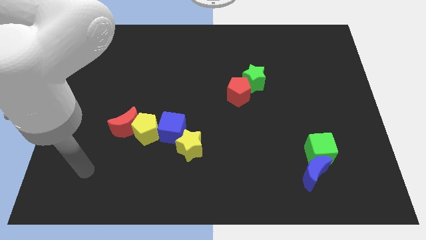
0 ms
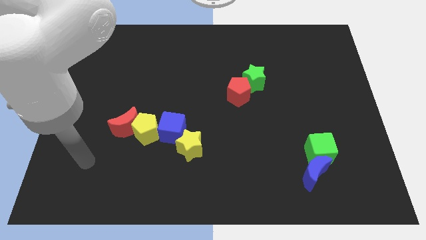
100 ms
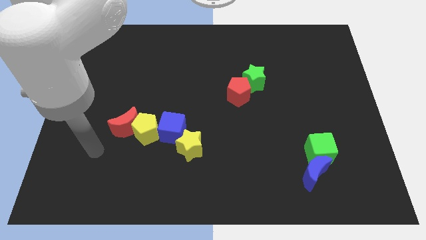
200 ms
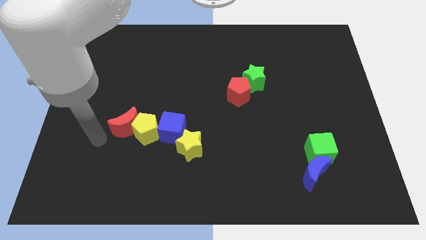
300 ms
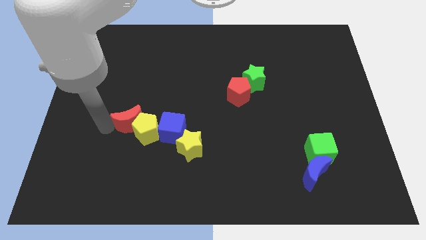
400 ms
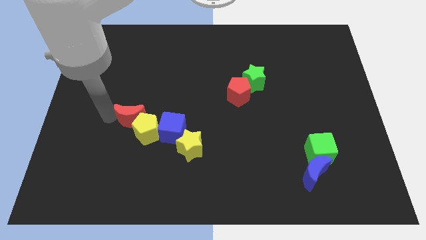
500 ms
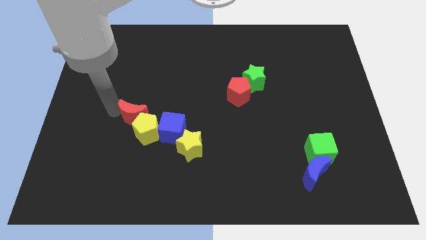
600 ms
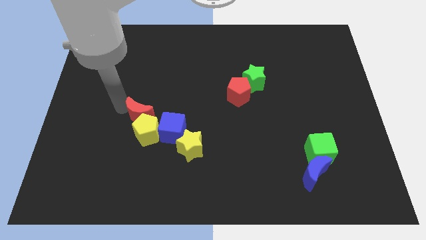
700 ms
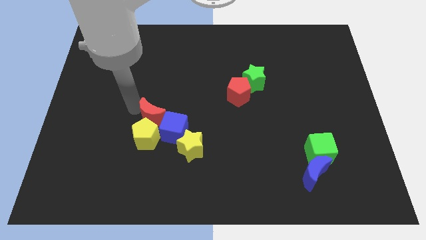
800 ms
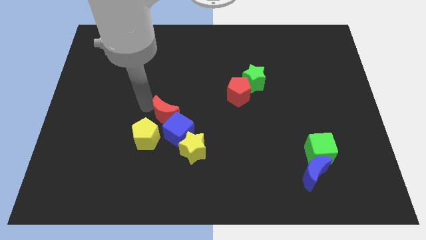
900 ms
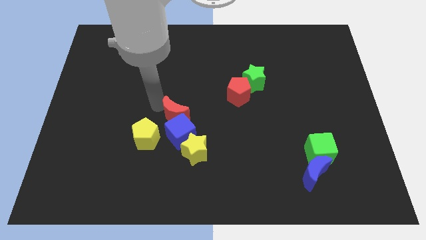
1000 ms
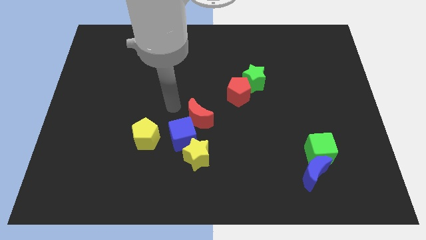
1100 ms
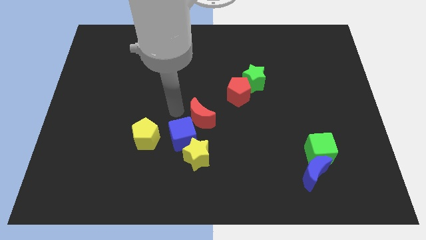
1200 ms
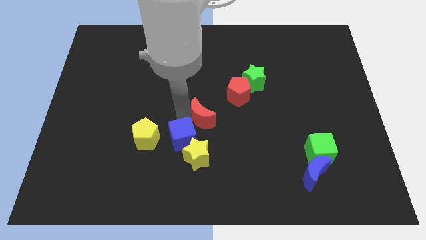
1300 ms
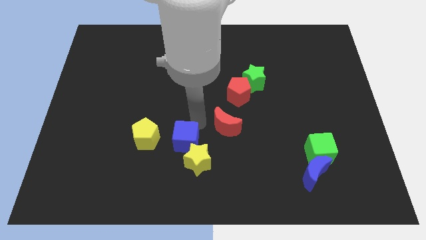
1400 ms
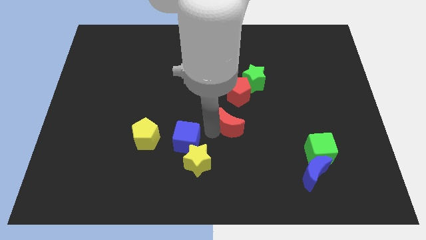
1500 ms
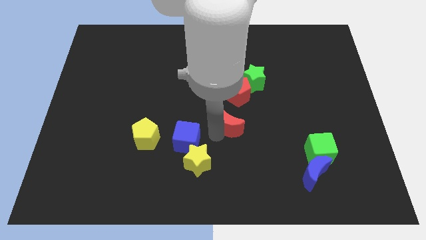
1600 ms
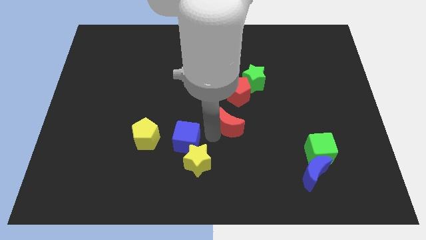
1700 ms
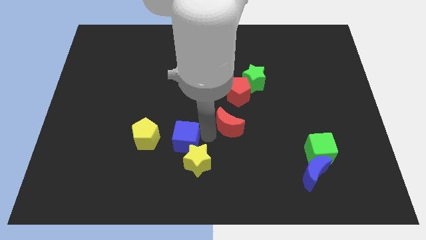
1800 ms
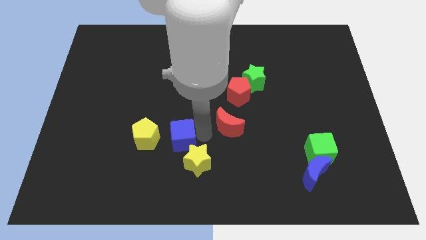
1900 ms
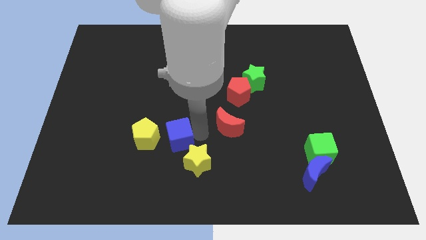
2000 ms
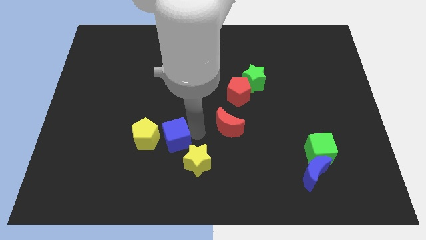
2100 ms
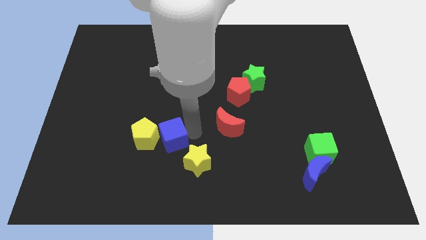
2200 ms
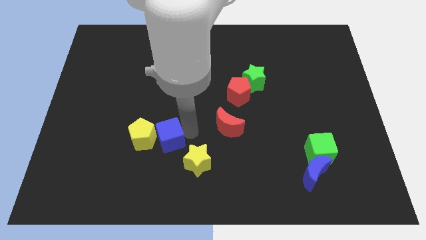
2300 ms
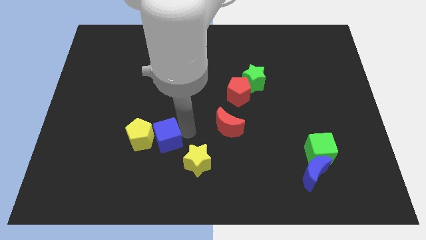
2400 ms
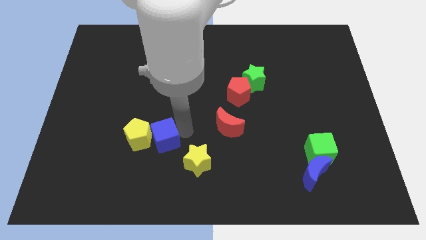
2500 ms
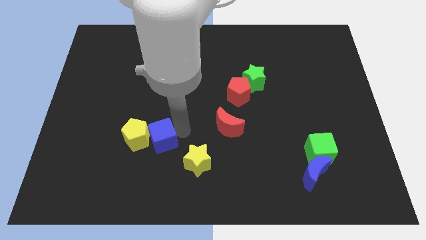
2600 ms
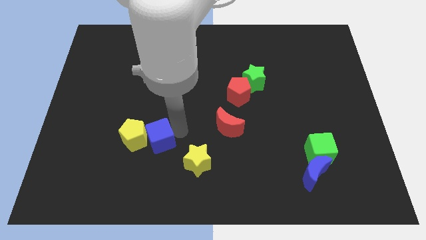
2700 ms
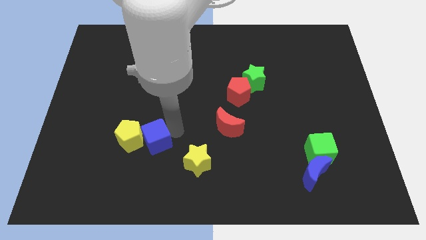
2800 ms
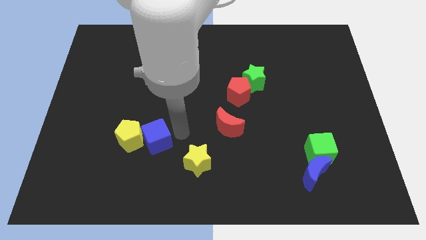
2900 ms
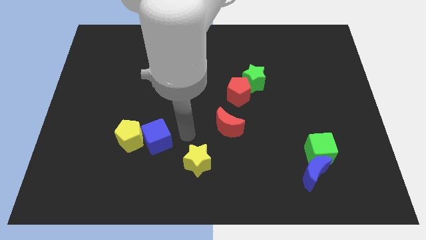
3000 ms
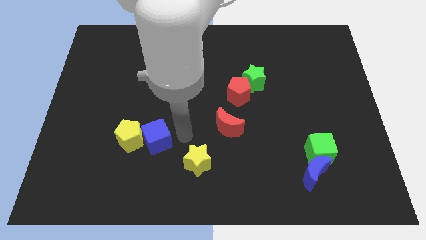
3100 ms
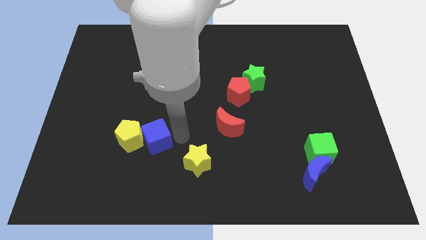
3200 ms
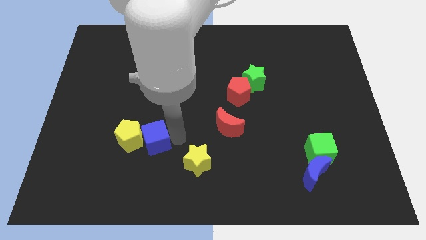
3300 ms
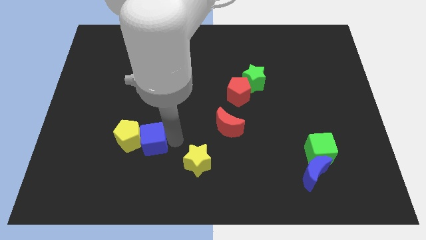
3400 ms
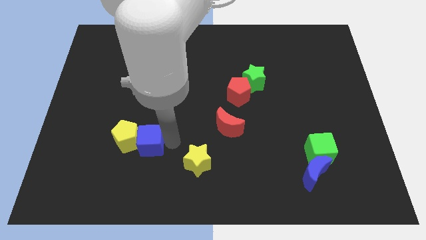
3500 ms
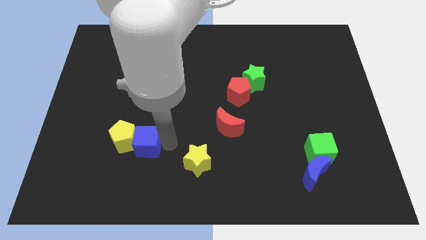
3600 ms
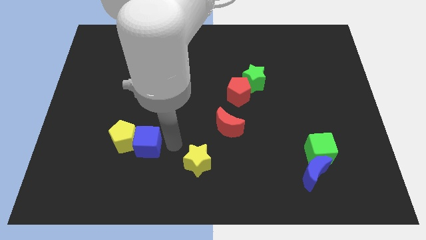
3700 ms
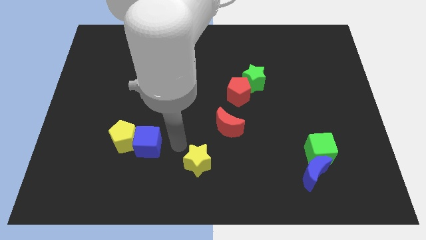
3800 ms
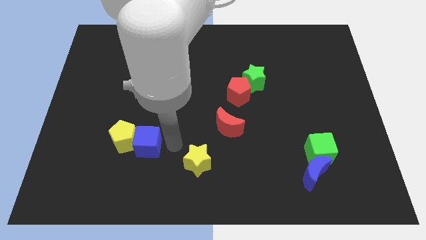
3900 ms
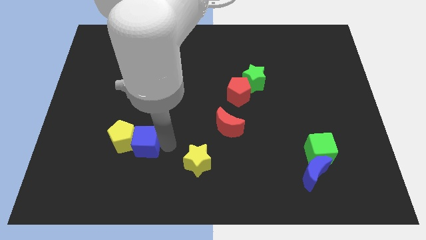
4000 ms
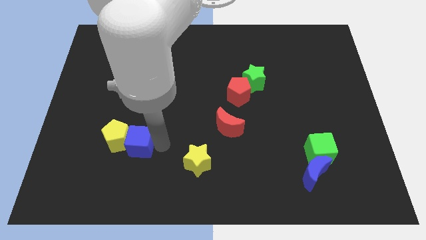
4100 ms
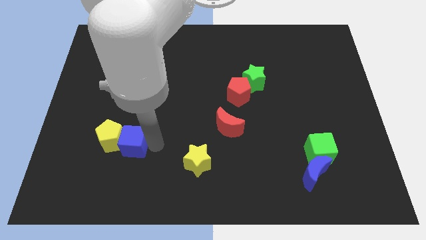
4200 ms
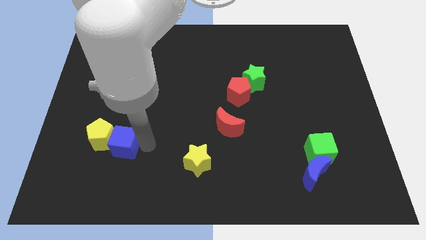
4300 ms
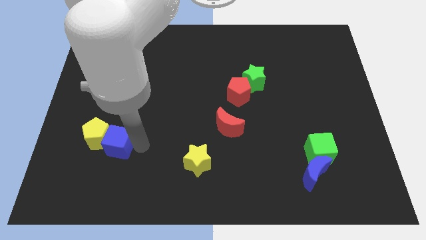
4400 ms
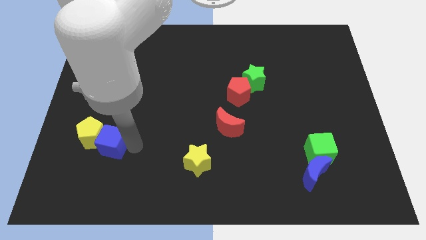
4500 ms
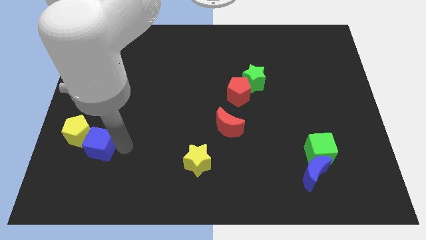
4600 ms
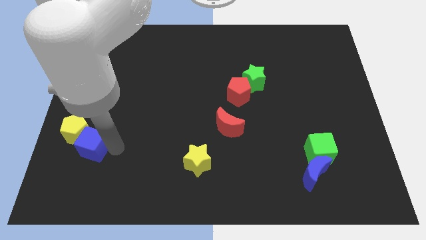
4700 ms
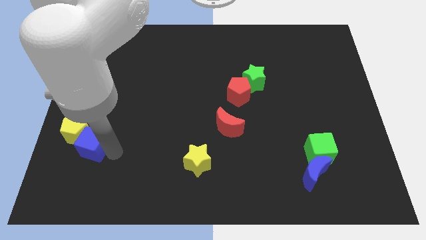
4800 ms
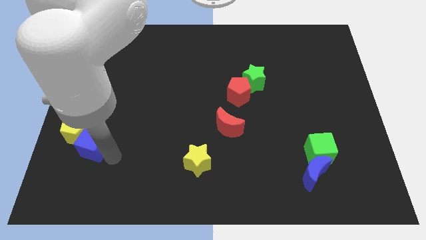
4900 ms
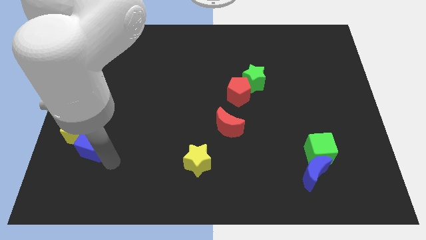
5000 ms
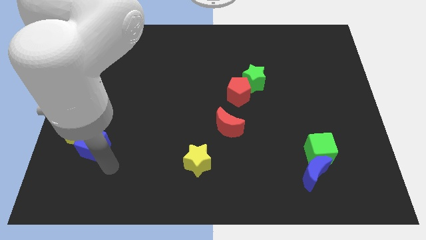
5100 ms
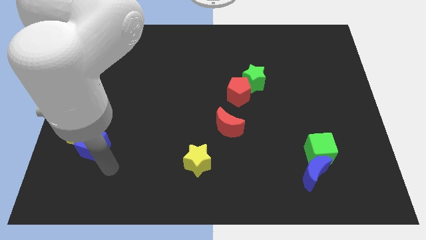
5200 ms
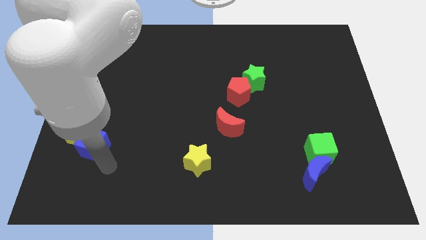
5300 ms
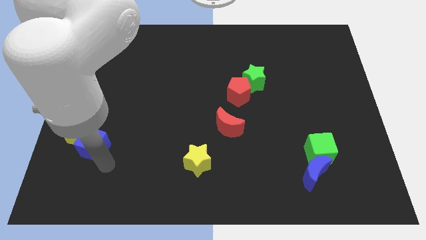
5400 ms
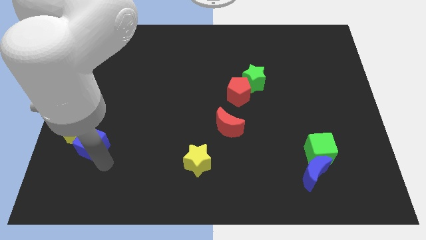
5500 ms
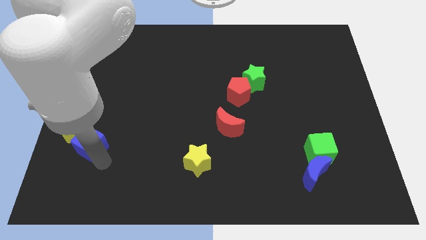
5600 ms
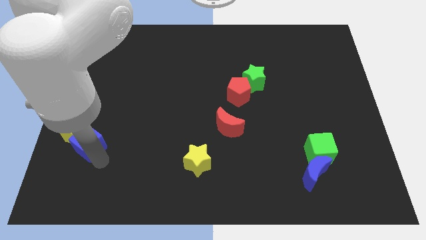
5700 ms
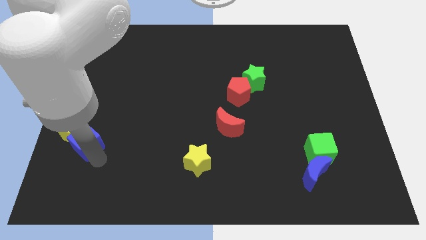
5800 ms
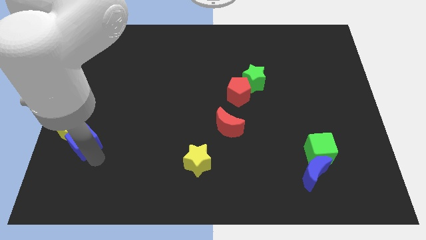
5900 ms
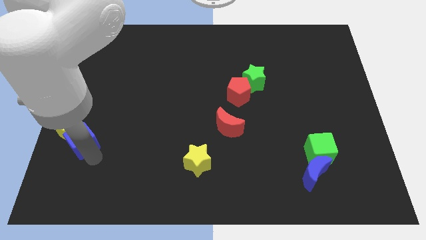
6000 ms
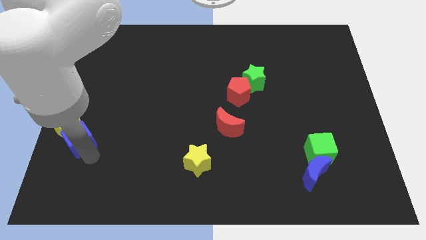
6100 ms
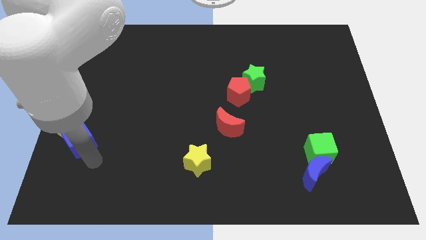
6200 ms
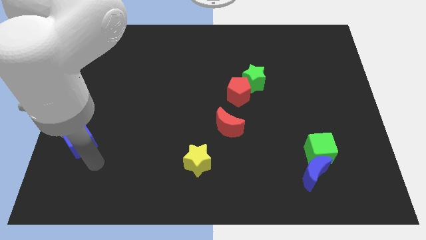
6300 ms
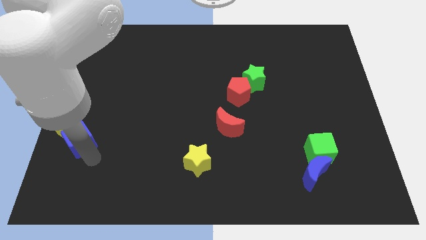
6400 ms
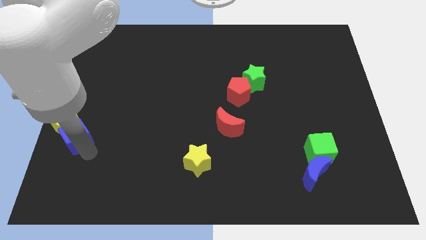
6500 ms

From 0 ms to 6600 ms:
push the blue cube to the left side of the board
